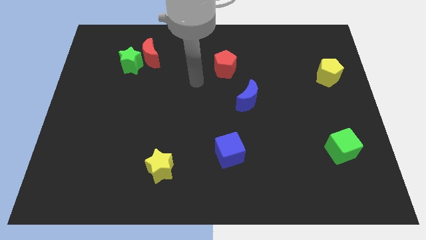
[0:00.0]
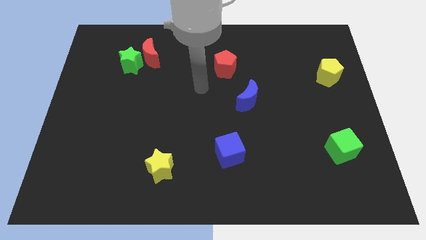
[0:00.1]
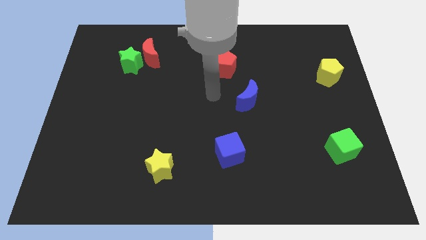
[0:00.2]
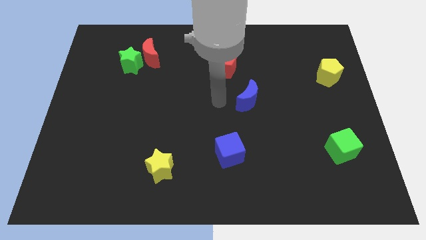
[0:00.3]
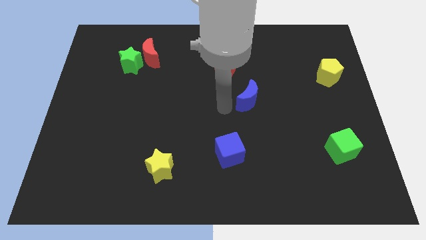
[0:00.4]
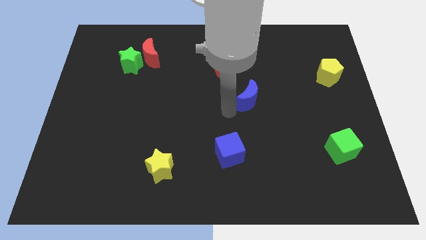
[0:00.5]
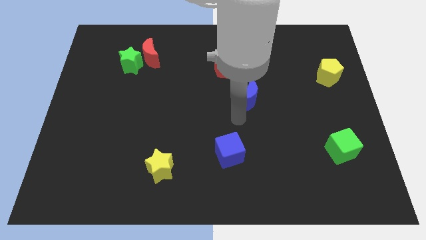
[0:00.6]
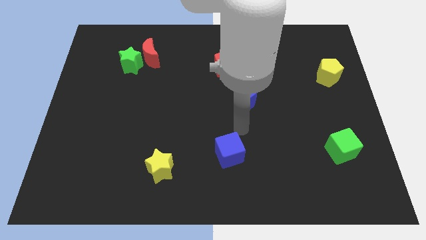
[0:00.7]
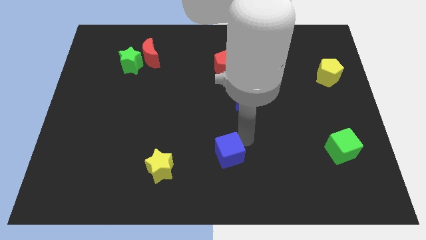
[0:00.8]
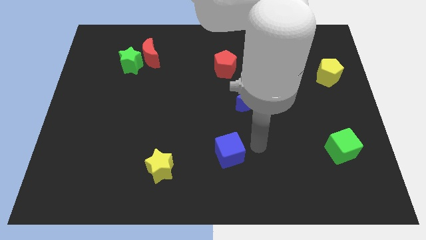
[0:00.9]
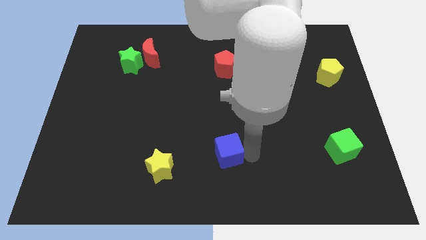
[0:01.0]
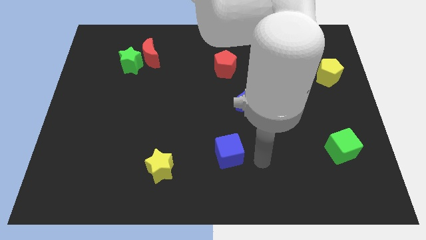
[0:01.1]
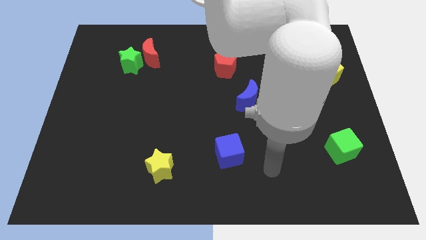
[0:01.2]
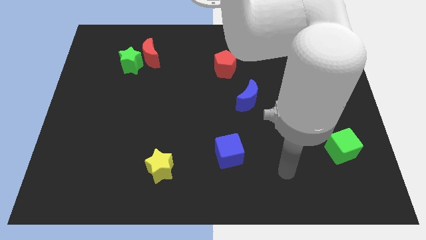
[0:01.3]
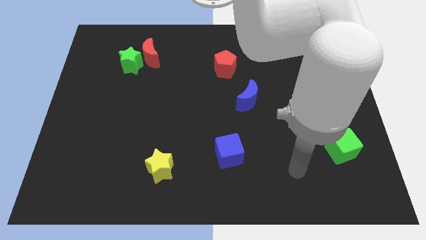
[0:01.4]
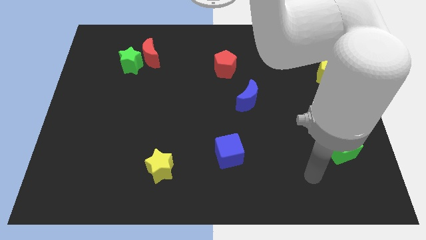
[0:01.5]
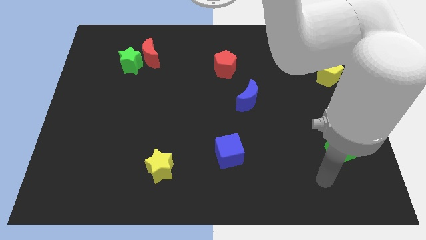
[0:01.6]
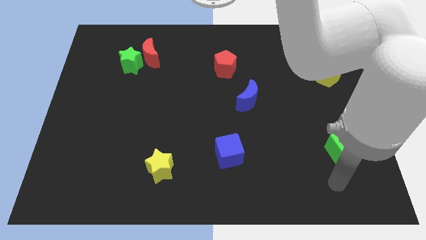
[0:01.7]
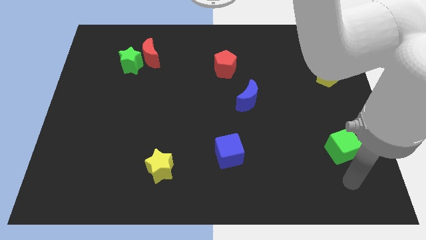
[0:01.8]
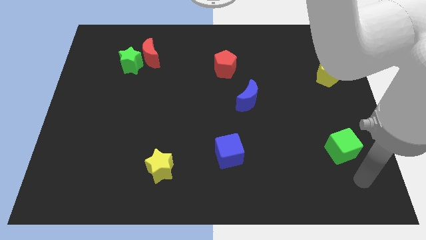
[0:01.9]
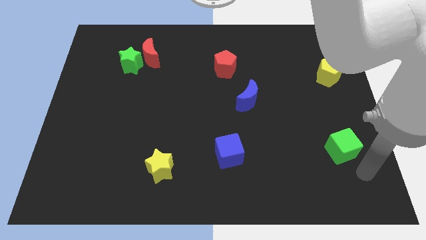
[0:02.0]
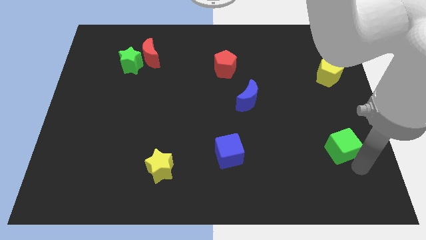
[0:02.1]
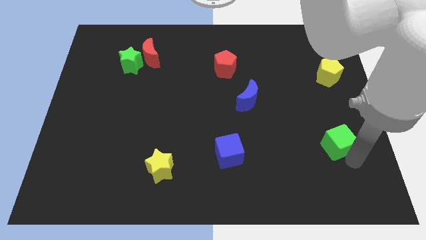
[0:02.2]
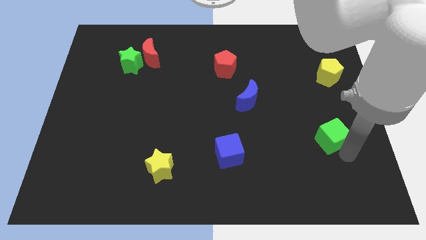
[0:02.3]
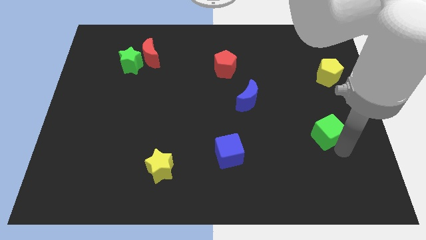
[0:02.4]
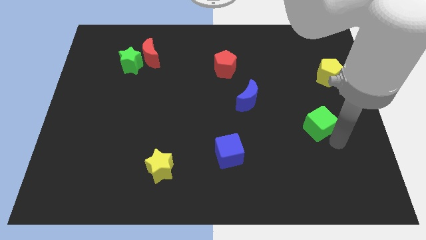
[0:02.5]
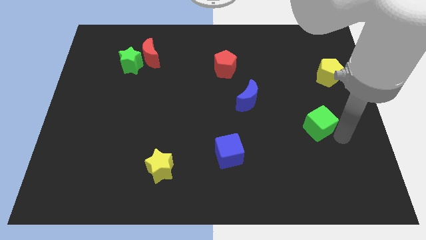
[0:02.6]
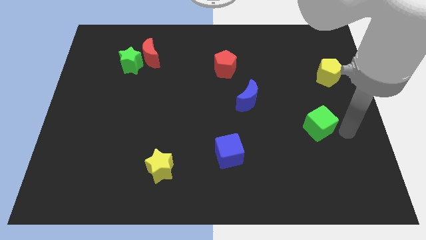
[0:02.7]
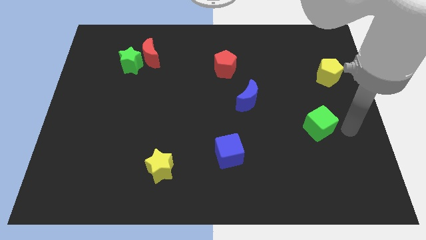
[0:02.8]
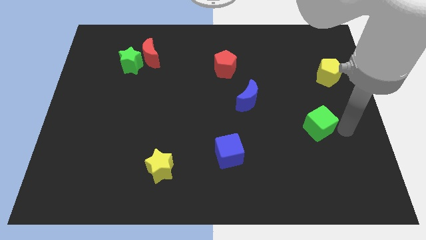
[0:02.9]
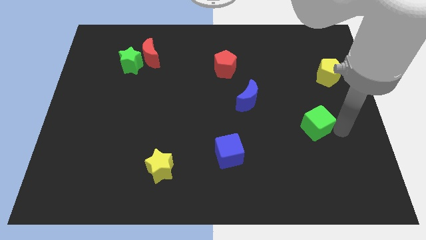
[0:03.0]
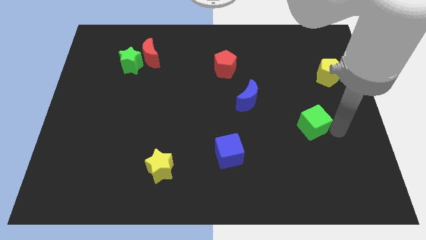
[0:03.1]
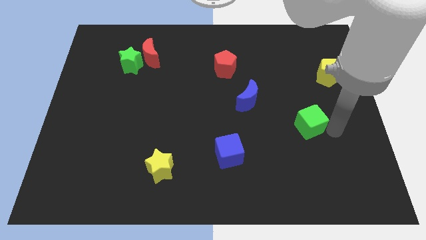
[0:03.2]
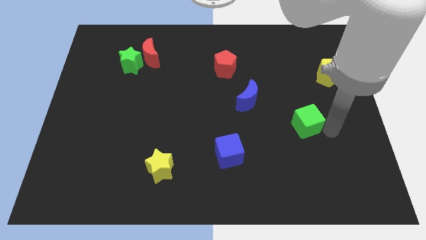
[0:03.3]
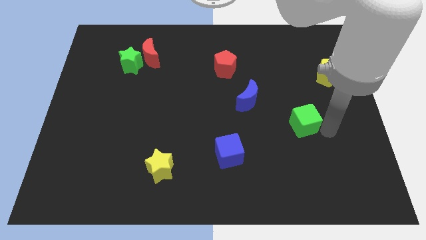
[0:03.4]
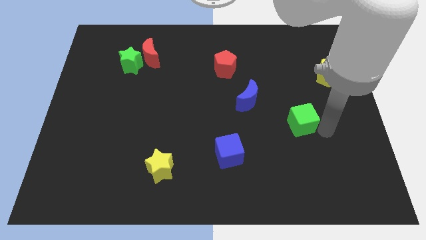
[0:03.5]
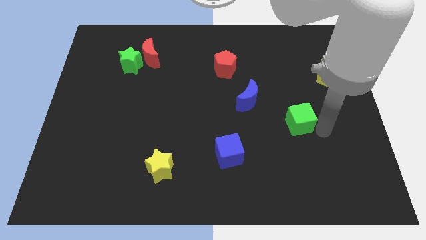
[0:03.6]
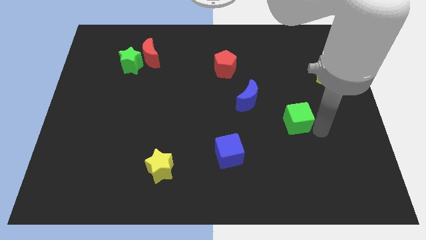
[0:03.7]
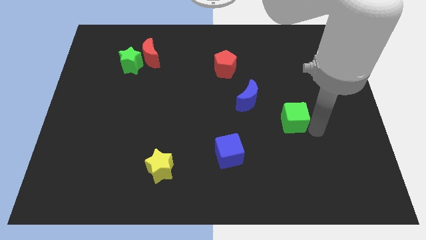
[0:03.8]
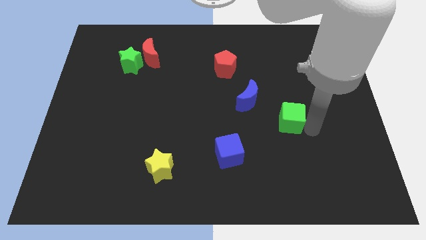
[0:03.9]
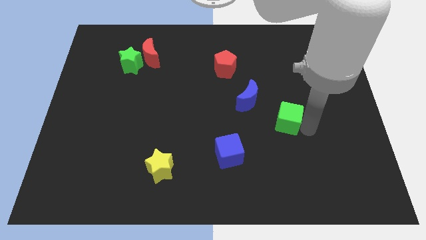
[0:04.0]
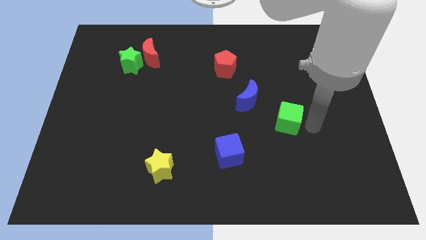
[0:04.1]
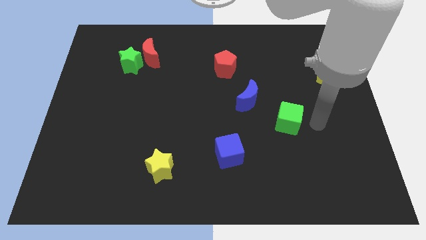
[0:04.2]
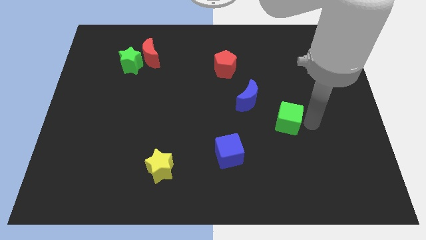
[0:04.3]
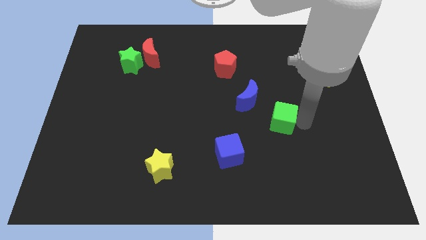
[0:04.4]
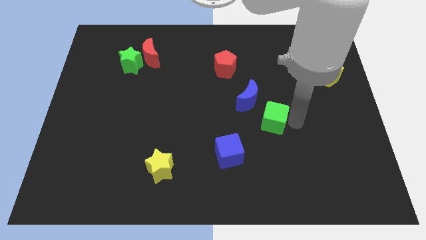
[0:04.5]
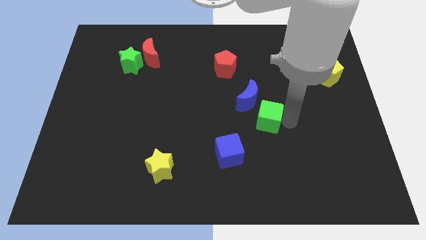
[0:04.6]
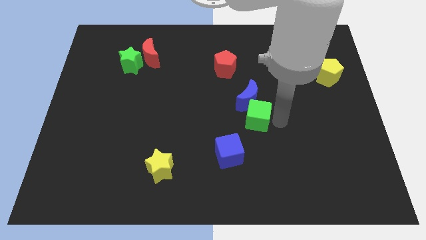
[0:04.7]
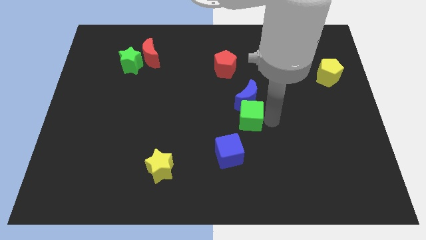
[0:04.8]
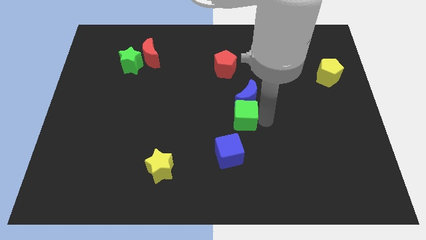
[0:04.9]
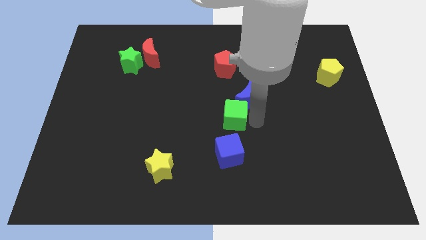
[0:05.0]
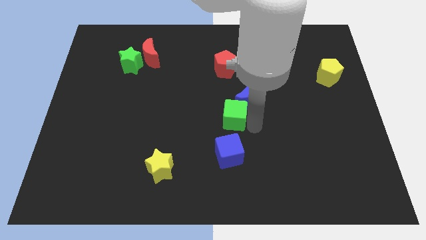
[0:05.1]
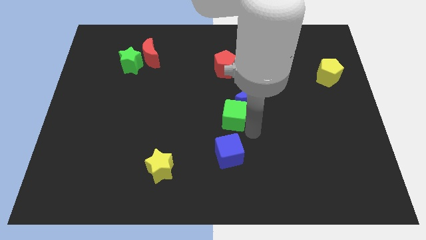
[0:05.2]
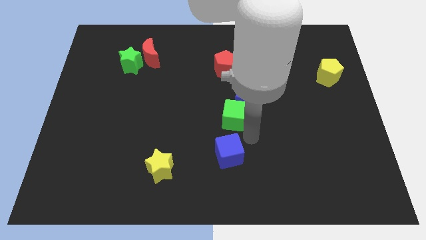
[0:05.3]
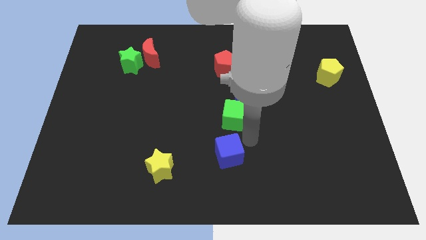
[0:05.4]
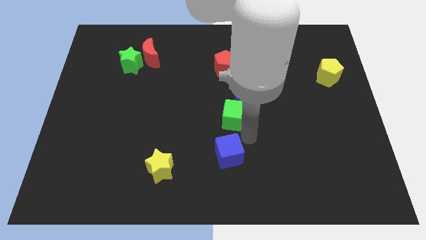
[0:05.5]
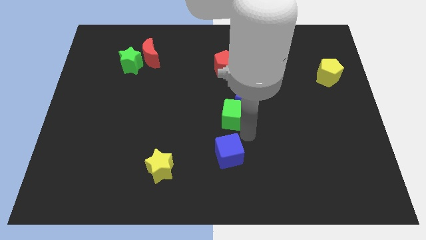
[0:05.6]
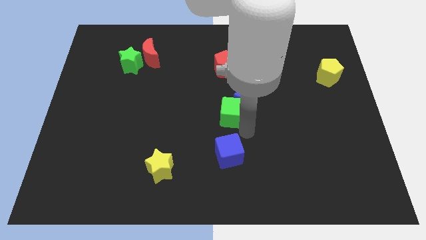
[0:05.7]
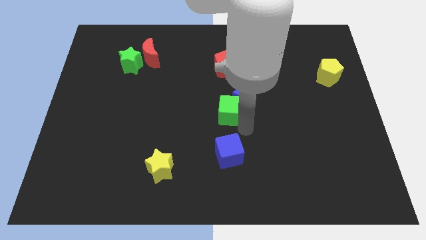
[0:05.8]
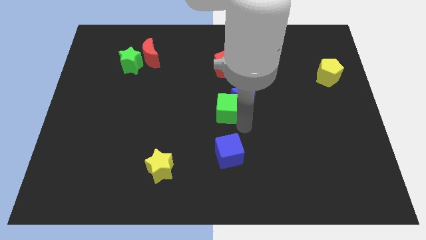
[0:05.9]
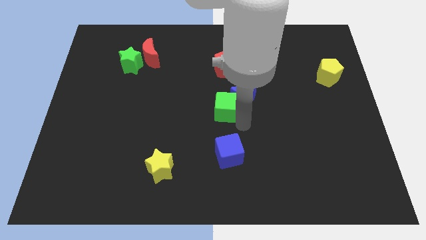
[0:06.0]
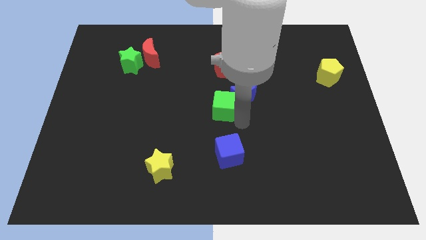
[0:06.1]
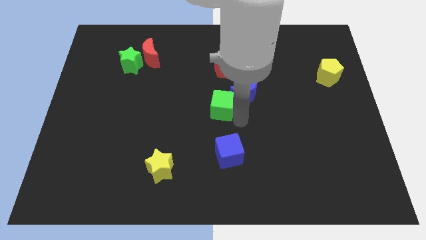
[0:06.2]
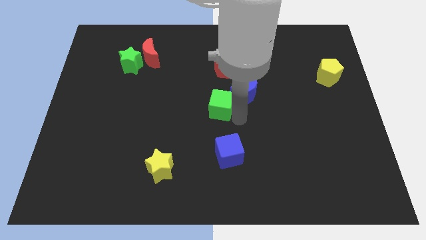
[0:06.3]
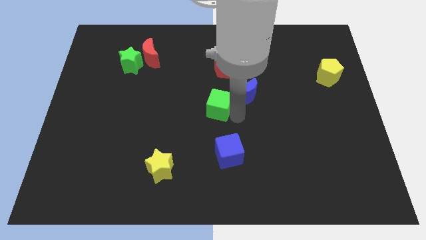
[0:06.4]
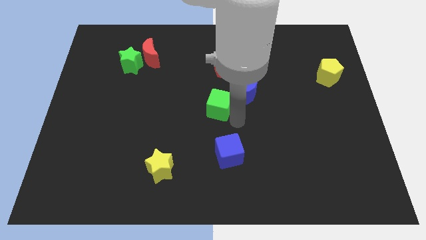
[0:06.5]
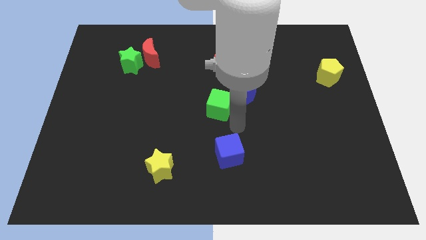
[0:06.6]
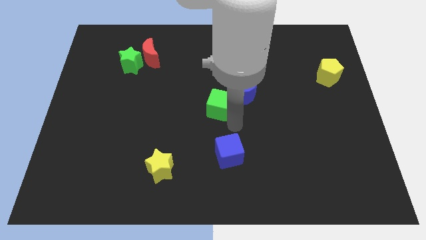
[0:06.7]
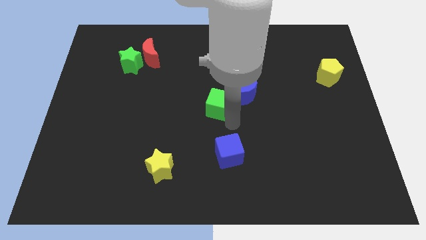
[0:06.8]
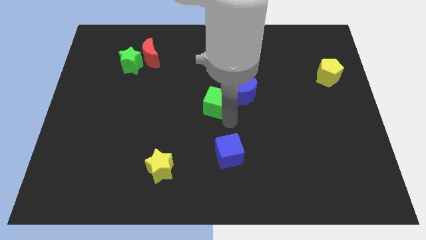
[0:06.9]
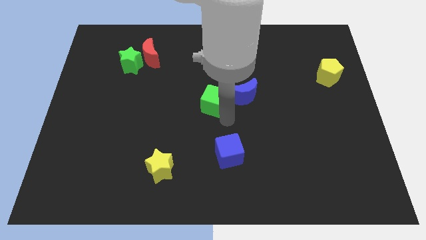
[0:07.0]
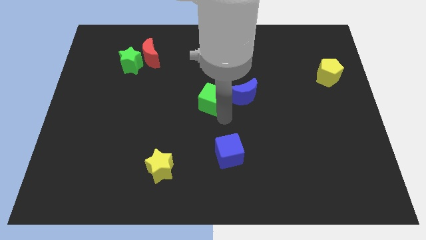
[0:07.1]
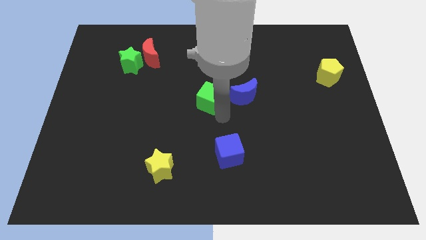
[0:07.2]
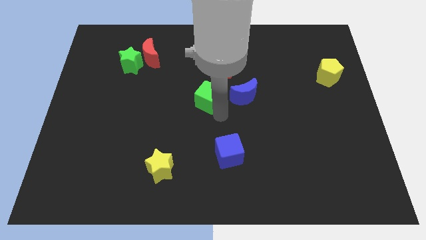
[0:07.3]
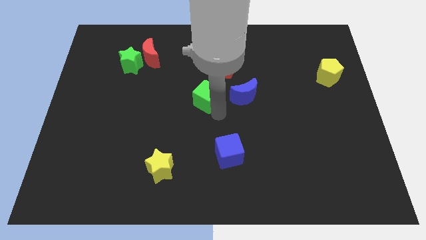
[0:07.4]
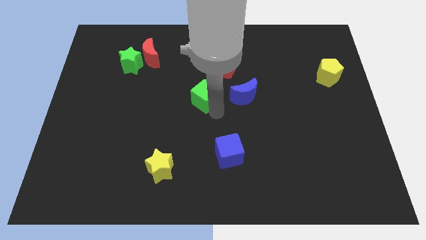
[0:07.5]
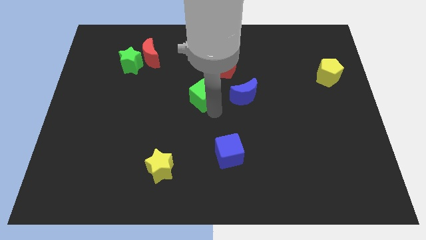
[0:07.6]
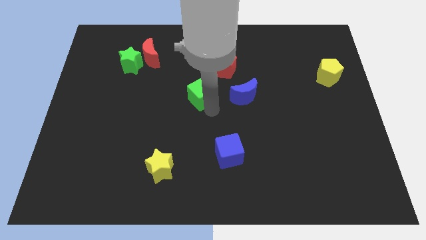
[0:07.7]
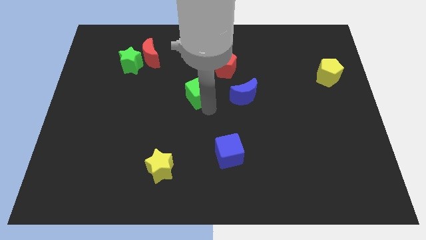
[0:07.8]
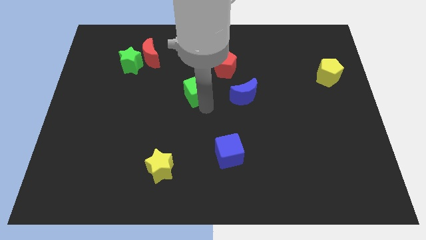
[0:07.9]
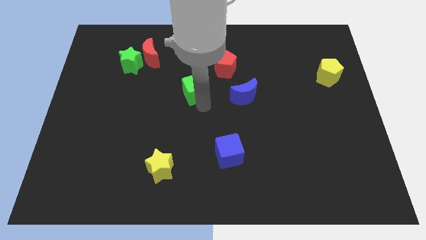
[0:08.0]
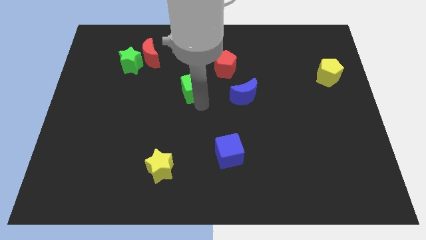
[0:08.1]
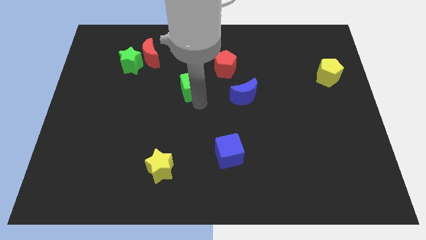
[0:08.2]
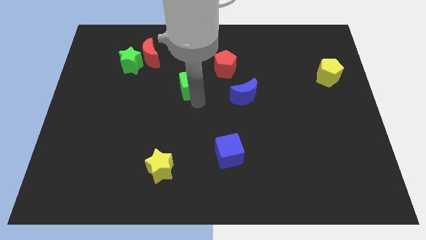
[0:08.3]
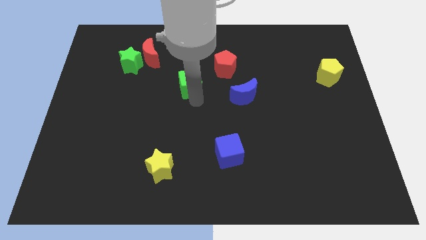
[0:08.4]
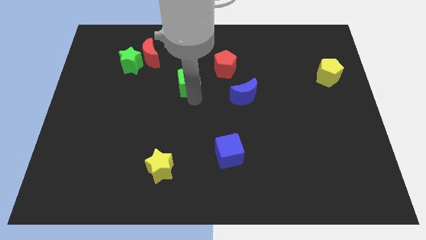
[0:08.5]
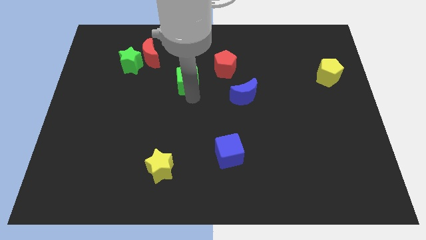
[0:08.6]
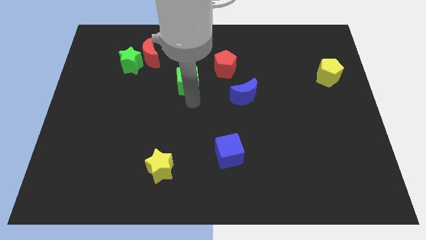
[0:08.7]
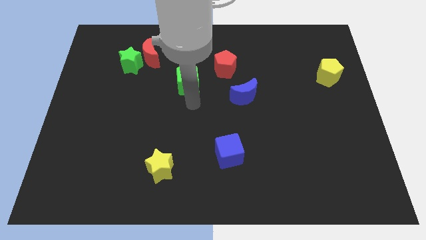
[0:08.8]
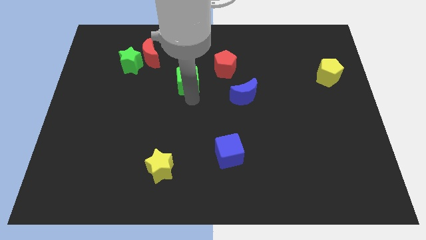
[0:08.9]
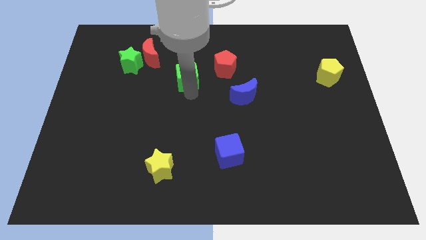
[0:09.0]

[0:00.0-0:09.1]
move the green cube to the left of the red pentagon
